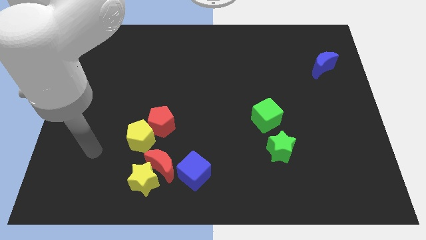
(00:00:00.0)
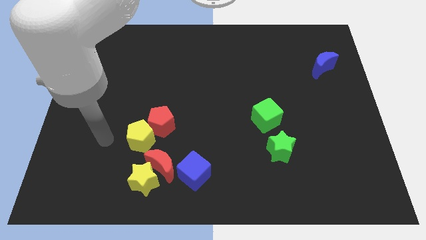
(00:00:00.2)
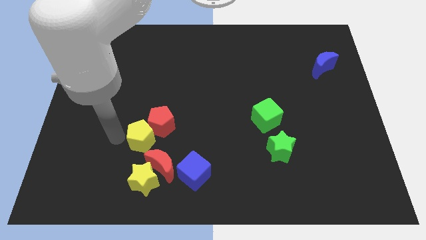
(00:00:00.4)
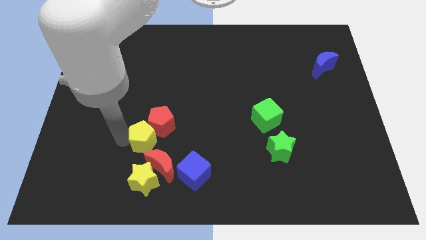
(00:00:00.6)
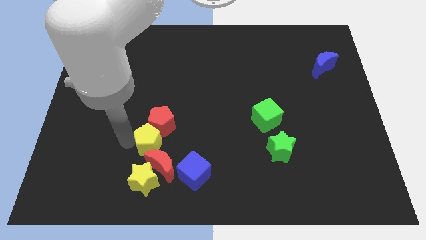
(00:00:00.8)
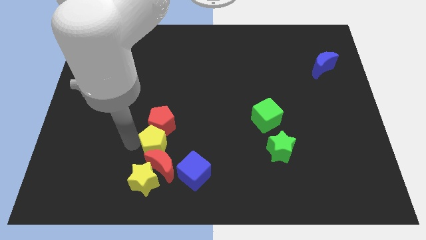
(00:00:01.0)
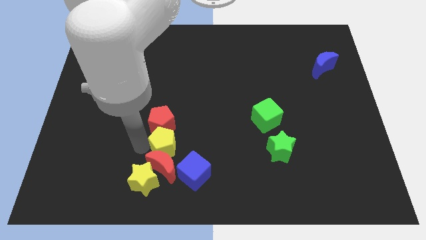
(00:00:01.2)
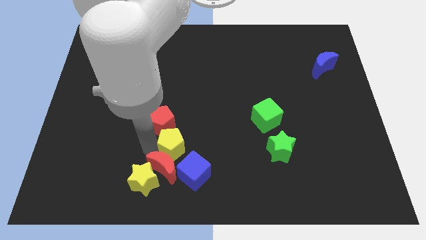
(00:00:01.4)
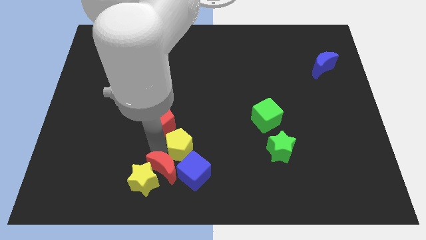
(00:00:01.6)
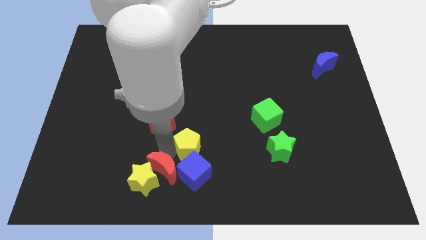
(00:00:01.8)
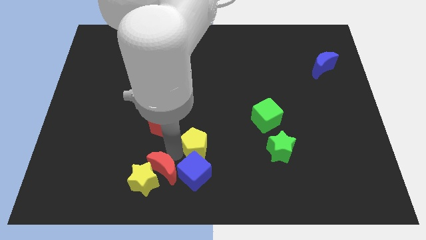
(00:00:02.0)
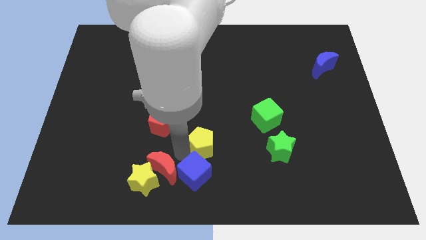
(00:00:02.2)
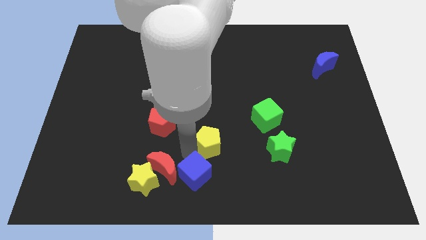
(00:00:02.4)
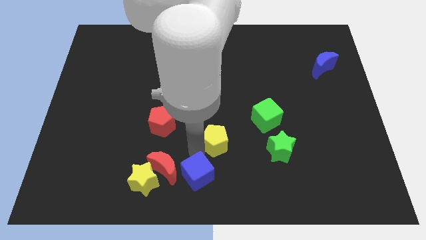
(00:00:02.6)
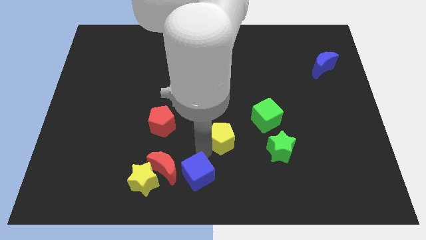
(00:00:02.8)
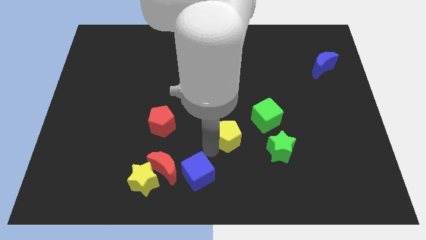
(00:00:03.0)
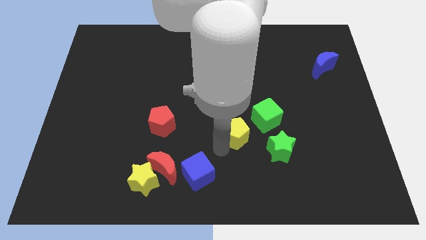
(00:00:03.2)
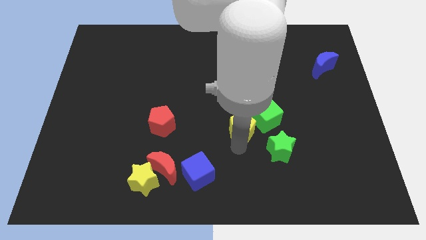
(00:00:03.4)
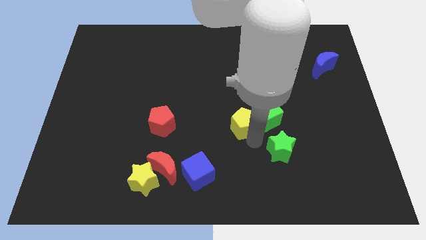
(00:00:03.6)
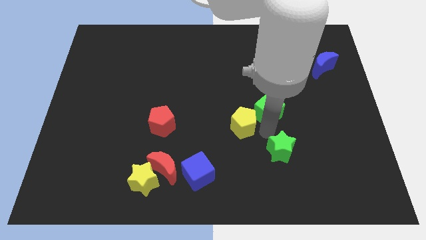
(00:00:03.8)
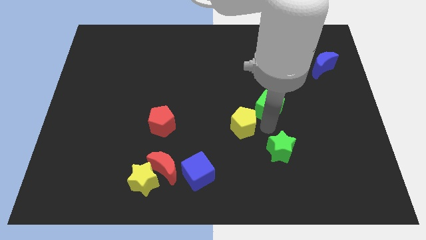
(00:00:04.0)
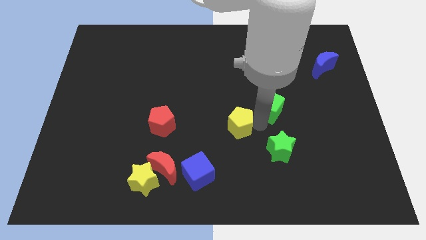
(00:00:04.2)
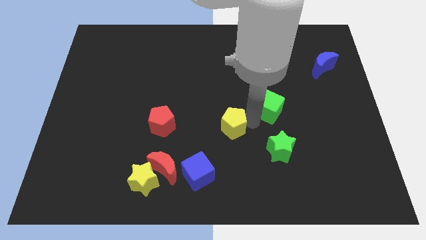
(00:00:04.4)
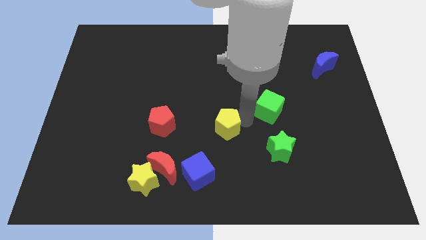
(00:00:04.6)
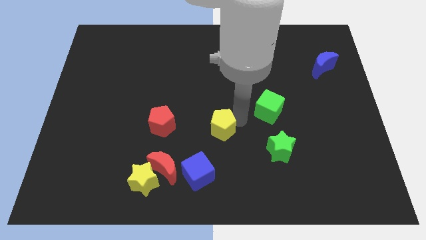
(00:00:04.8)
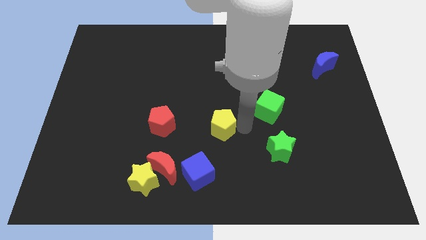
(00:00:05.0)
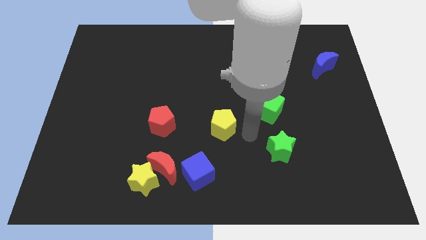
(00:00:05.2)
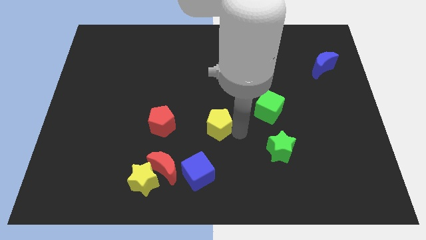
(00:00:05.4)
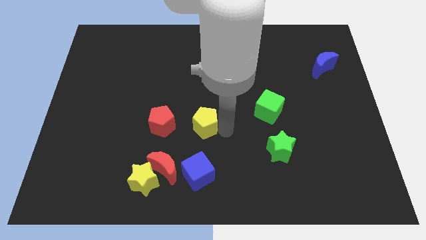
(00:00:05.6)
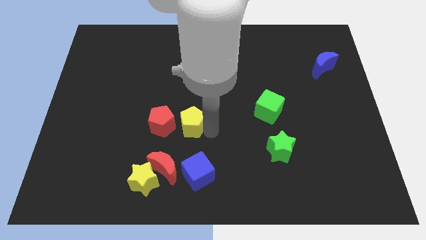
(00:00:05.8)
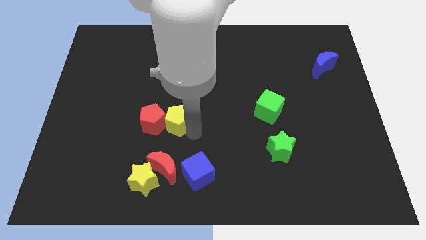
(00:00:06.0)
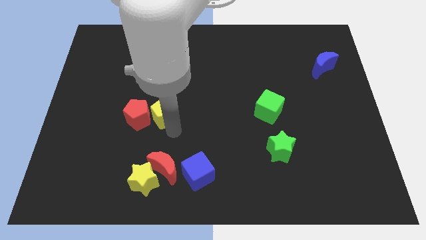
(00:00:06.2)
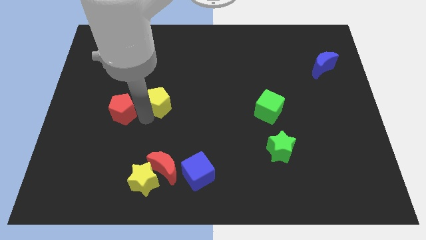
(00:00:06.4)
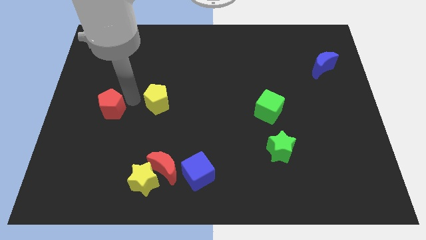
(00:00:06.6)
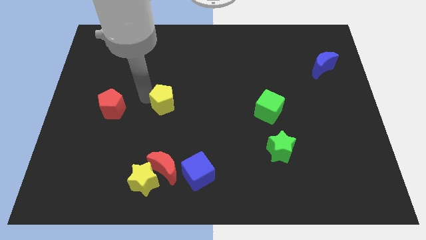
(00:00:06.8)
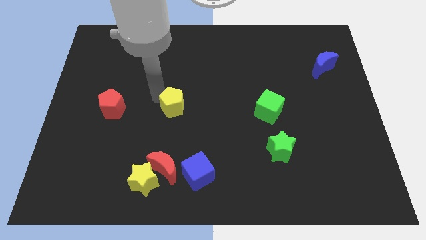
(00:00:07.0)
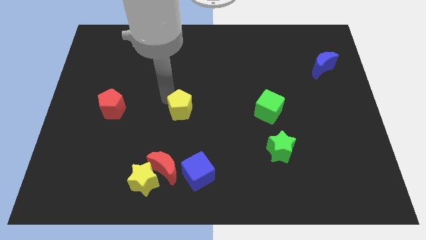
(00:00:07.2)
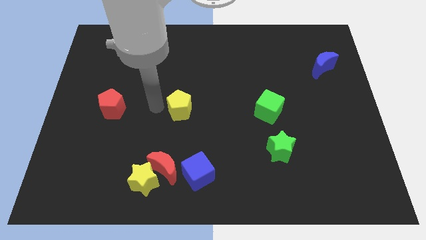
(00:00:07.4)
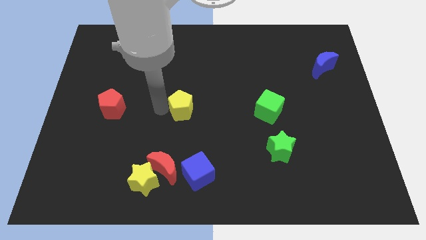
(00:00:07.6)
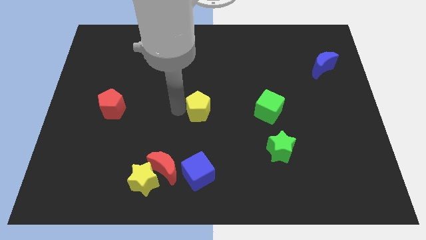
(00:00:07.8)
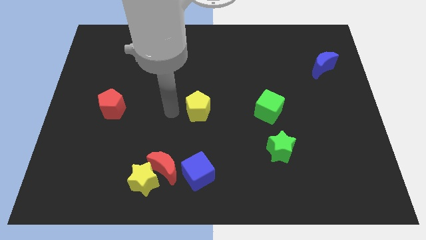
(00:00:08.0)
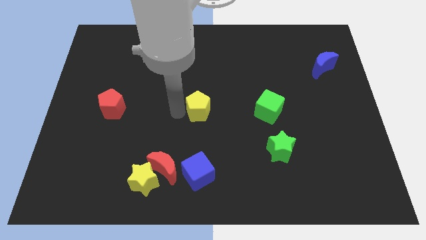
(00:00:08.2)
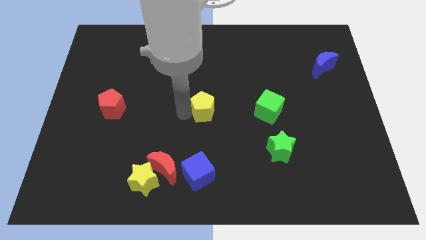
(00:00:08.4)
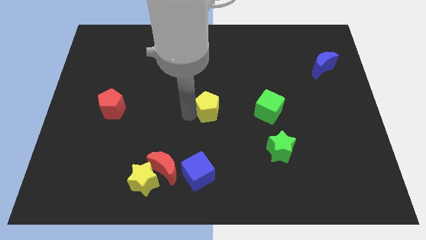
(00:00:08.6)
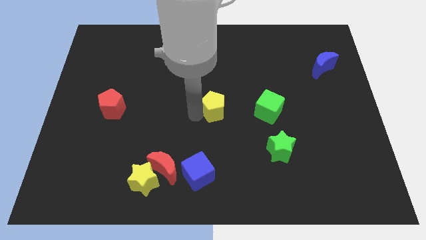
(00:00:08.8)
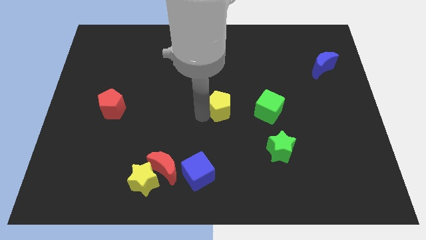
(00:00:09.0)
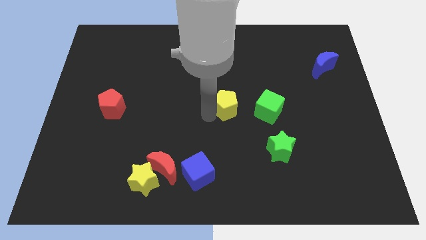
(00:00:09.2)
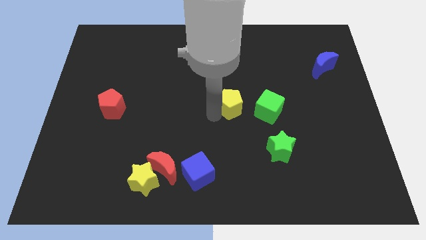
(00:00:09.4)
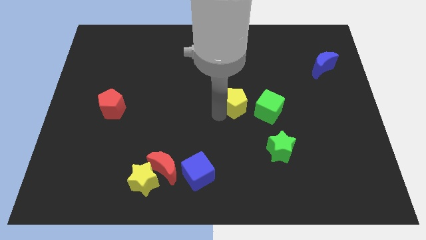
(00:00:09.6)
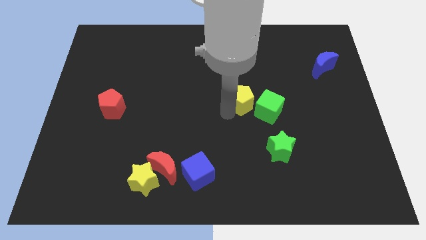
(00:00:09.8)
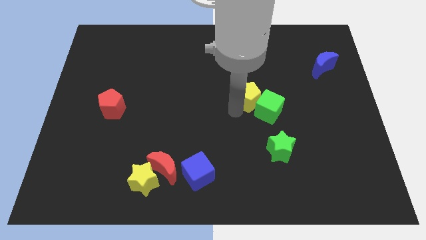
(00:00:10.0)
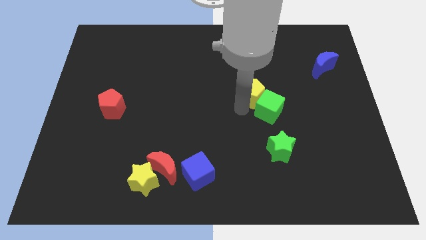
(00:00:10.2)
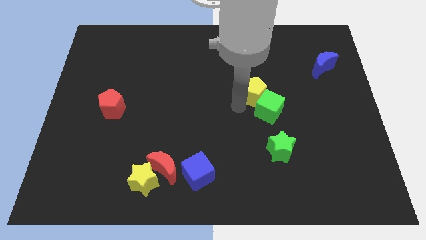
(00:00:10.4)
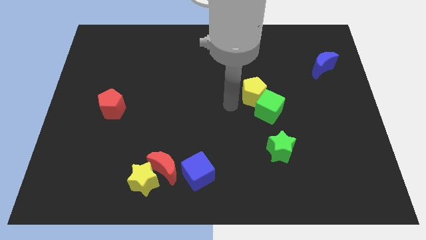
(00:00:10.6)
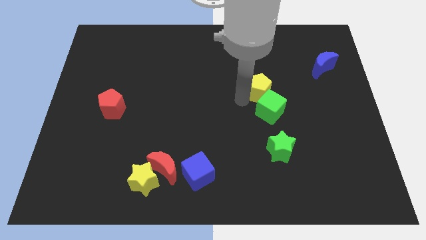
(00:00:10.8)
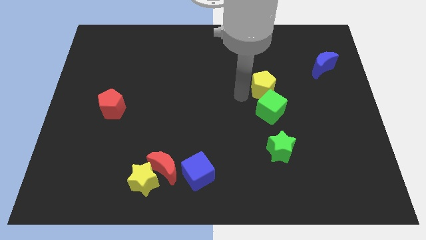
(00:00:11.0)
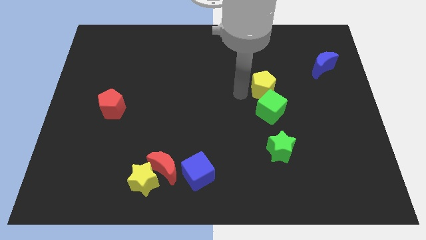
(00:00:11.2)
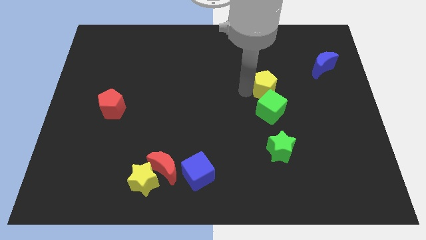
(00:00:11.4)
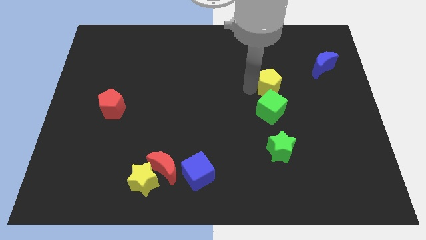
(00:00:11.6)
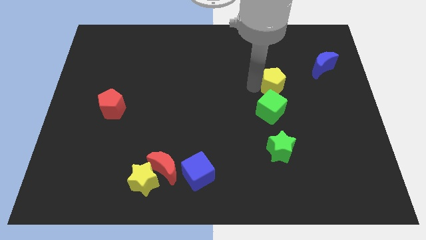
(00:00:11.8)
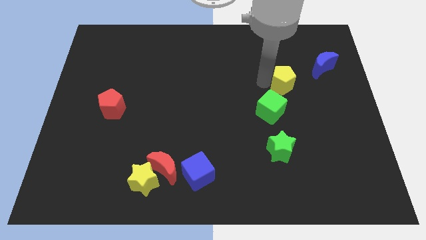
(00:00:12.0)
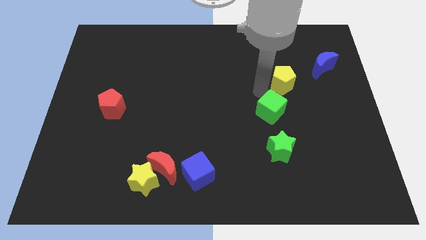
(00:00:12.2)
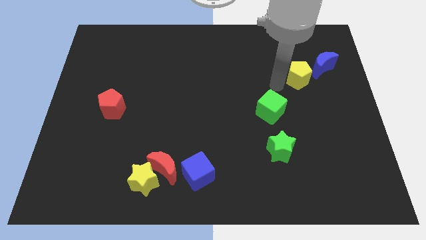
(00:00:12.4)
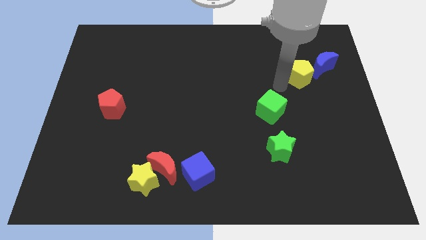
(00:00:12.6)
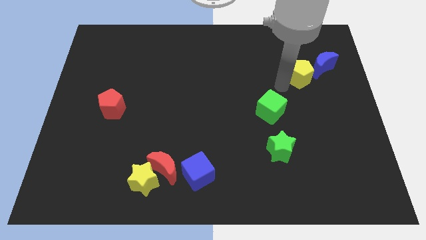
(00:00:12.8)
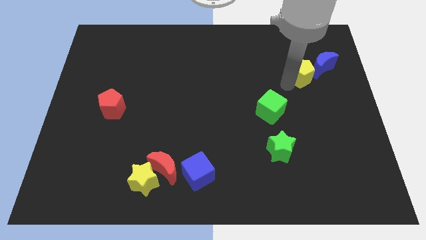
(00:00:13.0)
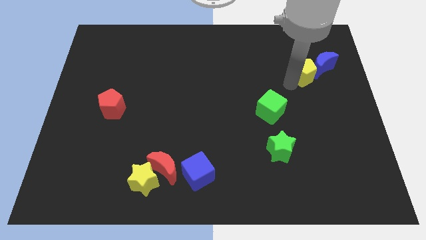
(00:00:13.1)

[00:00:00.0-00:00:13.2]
move the yellow pentagon towards the blue moon

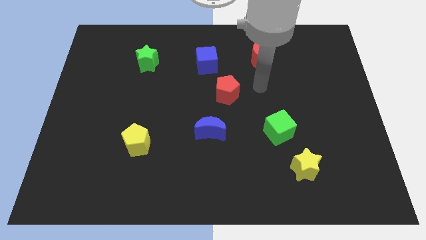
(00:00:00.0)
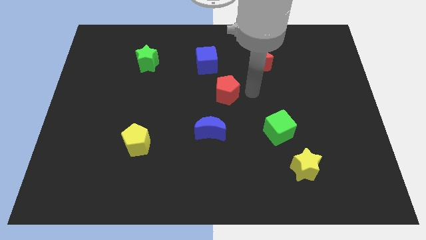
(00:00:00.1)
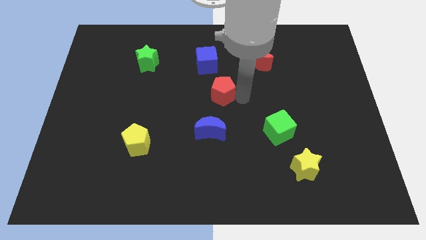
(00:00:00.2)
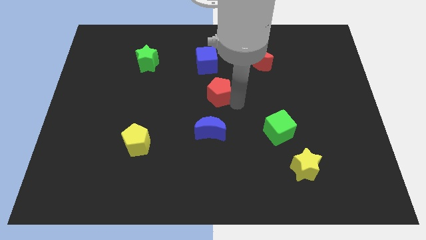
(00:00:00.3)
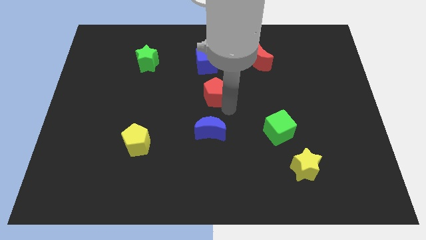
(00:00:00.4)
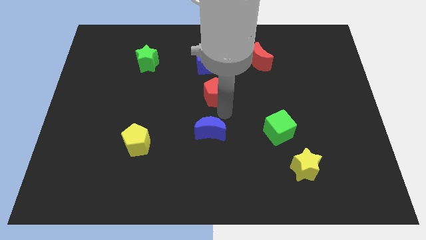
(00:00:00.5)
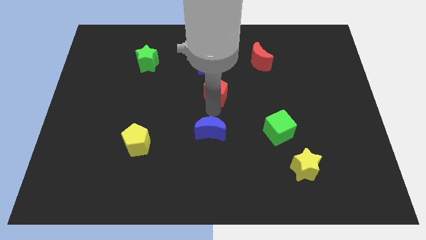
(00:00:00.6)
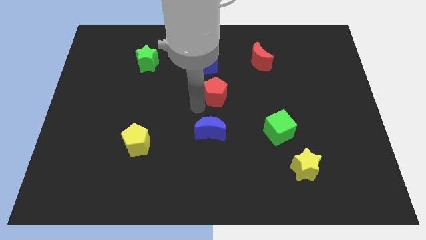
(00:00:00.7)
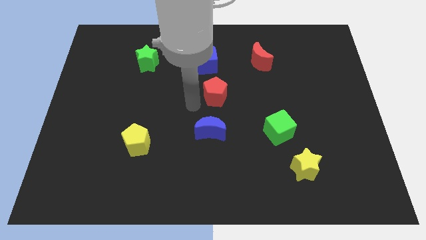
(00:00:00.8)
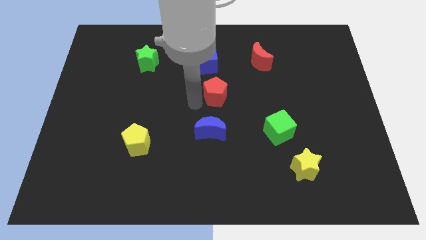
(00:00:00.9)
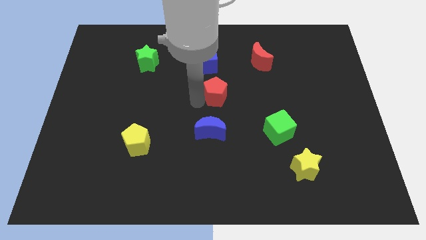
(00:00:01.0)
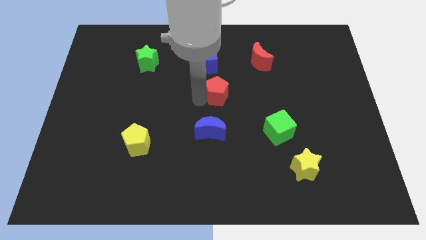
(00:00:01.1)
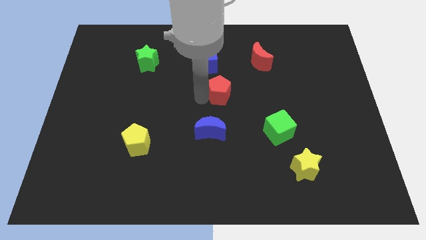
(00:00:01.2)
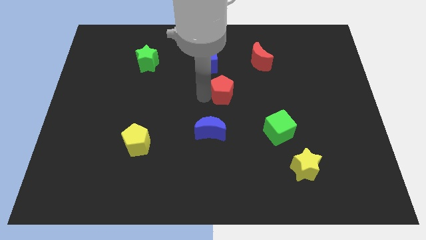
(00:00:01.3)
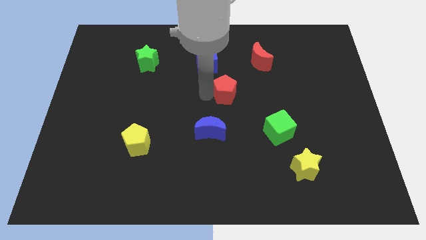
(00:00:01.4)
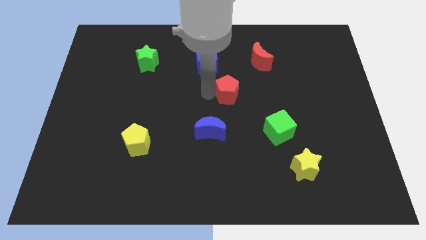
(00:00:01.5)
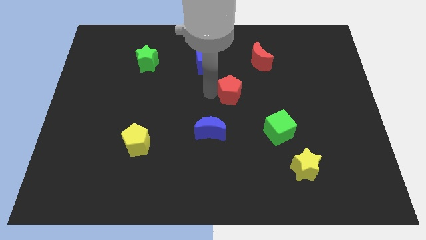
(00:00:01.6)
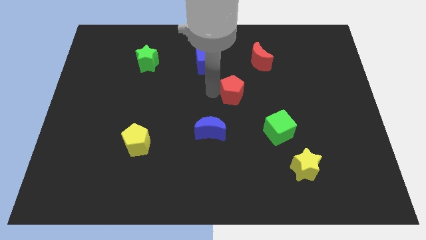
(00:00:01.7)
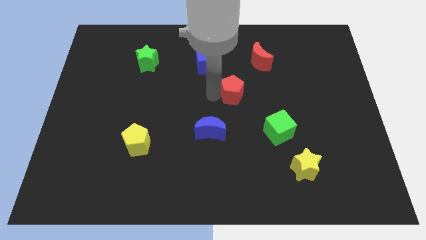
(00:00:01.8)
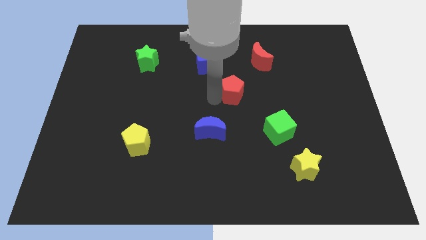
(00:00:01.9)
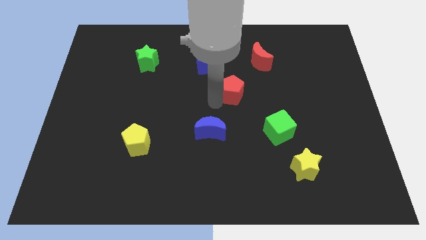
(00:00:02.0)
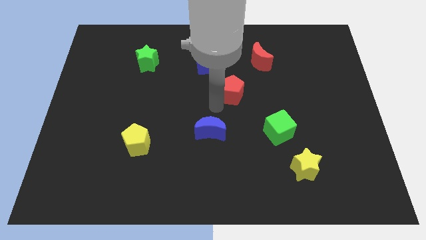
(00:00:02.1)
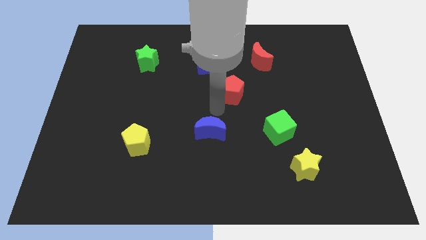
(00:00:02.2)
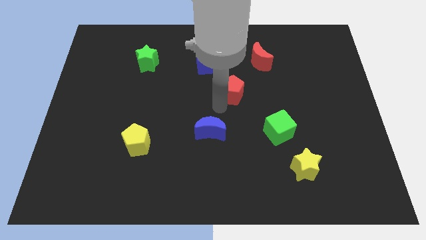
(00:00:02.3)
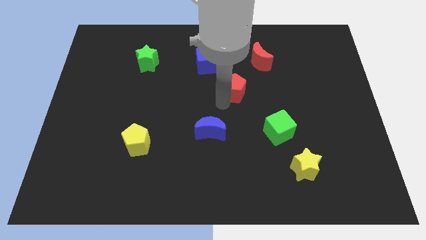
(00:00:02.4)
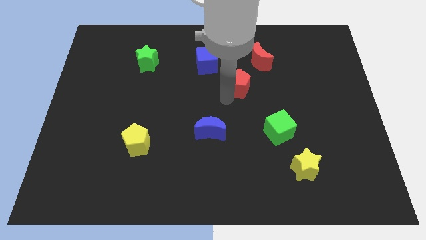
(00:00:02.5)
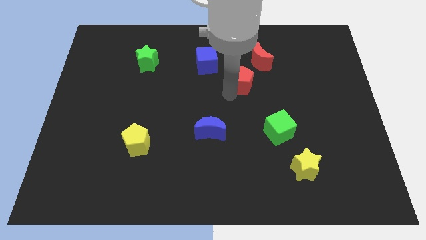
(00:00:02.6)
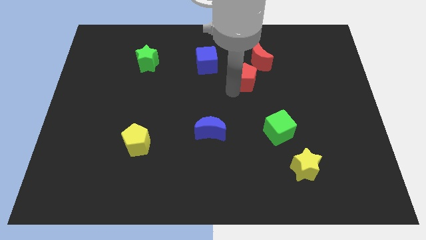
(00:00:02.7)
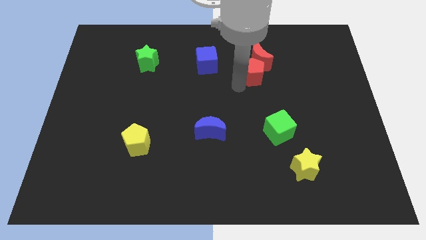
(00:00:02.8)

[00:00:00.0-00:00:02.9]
move the red pentagon close to the red moon
